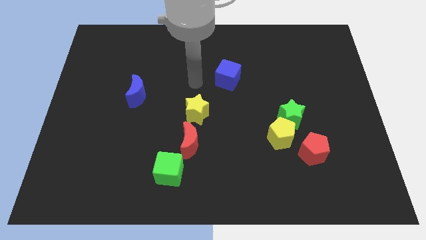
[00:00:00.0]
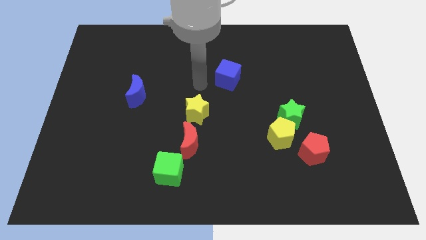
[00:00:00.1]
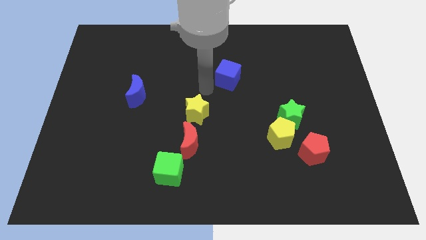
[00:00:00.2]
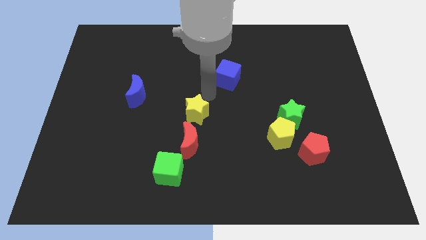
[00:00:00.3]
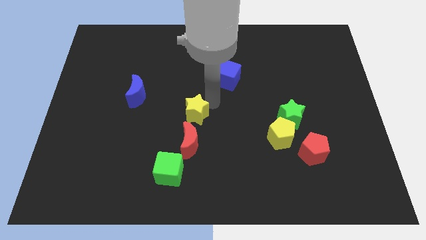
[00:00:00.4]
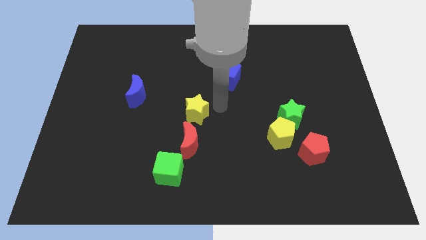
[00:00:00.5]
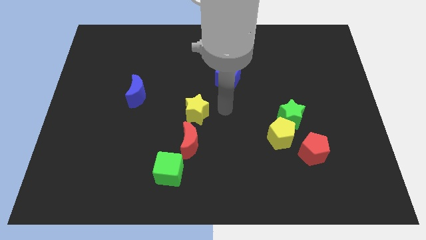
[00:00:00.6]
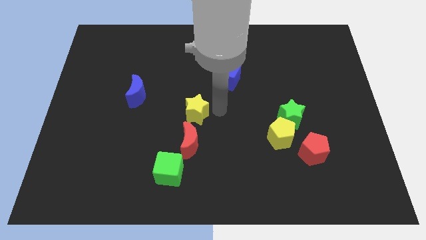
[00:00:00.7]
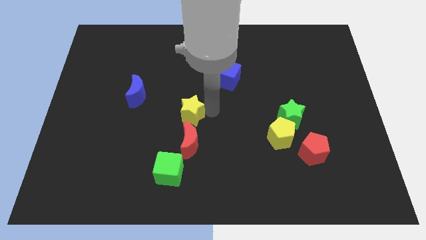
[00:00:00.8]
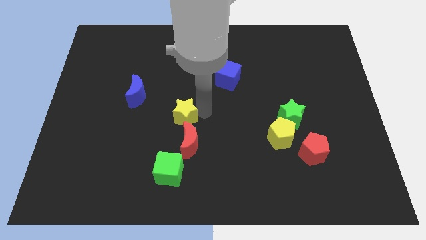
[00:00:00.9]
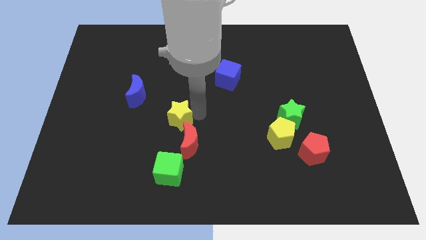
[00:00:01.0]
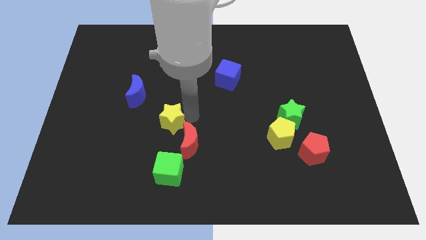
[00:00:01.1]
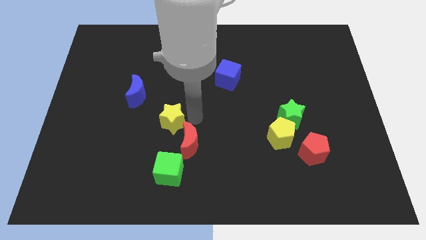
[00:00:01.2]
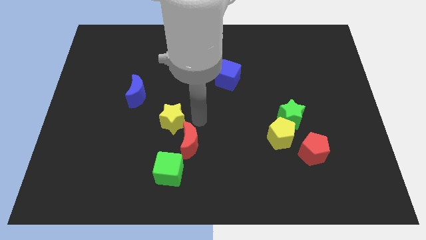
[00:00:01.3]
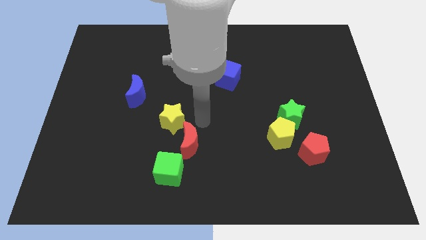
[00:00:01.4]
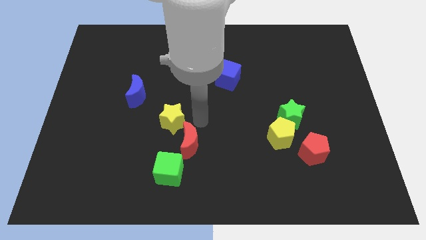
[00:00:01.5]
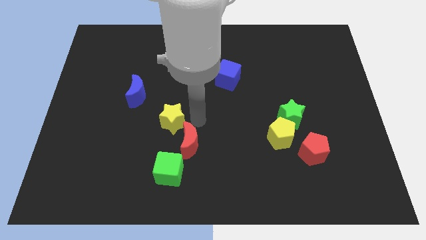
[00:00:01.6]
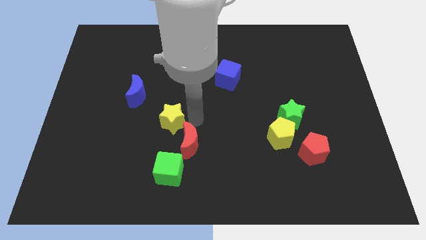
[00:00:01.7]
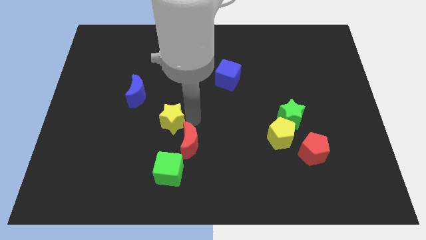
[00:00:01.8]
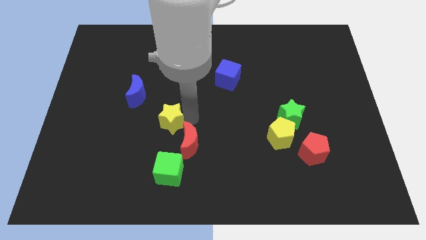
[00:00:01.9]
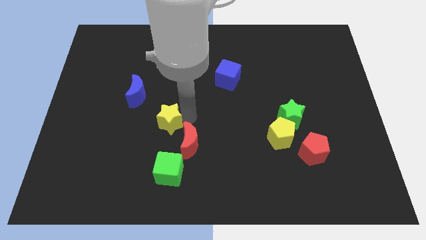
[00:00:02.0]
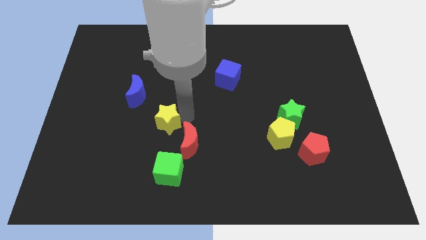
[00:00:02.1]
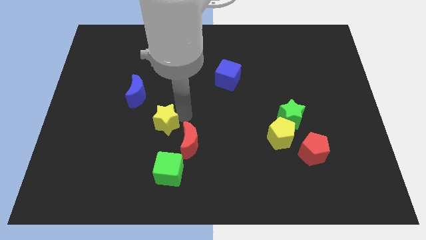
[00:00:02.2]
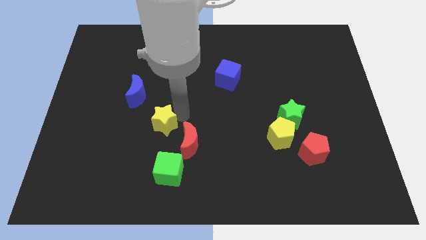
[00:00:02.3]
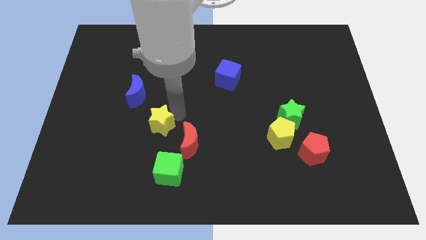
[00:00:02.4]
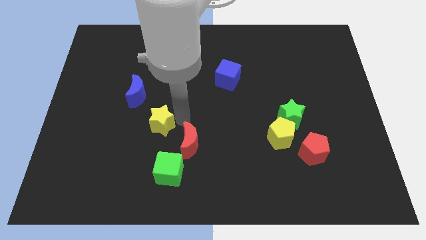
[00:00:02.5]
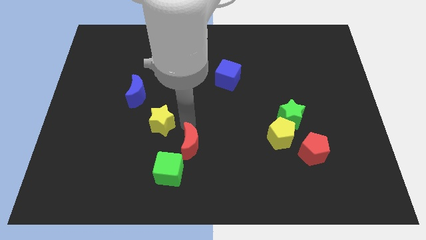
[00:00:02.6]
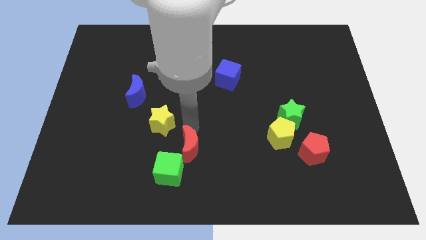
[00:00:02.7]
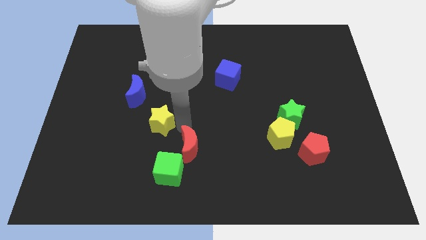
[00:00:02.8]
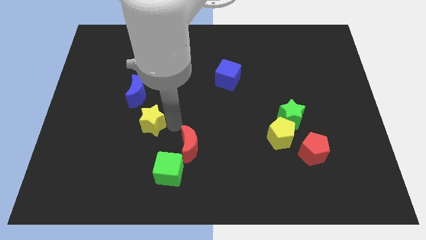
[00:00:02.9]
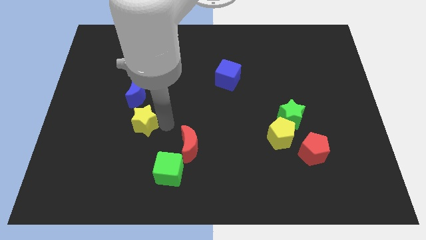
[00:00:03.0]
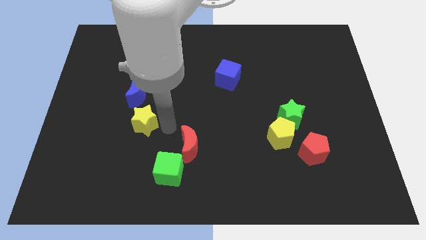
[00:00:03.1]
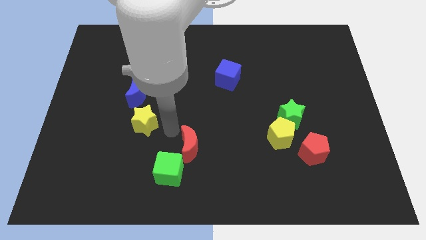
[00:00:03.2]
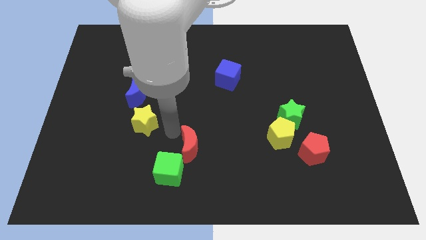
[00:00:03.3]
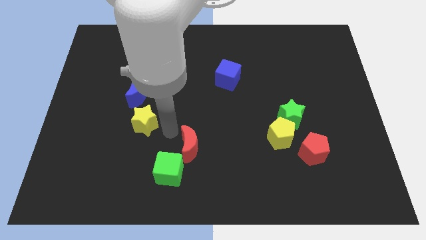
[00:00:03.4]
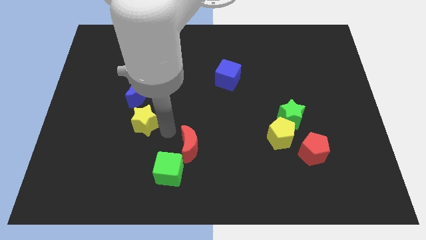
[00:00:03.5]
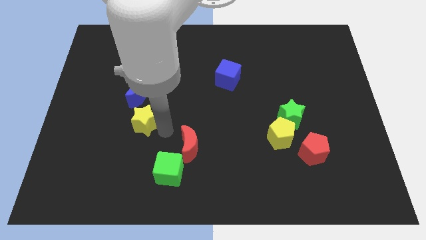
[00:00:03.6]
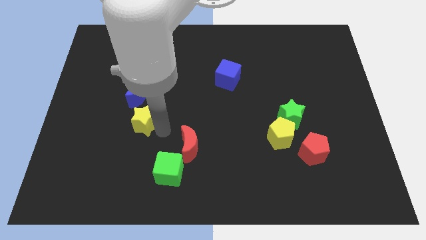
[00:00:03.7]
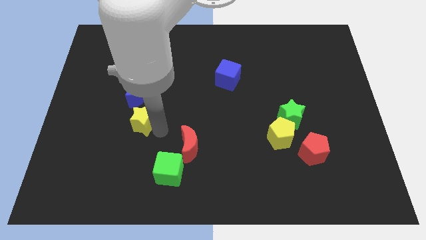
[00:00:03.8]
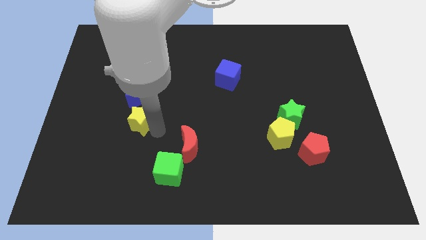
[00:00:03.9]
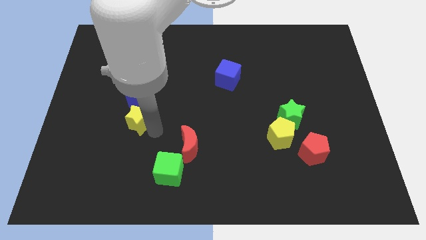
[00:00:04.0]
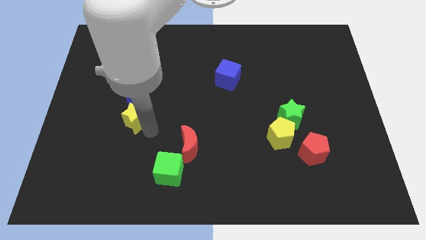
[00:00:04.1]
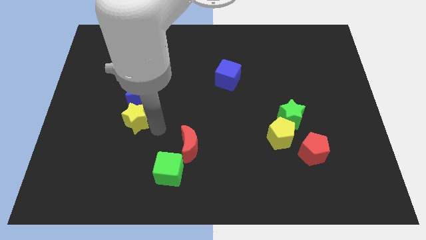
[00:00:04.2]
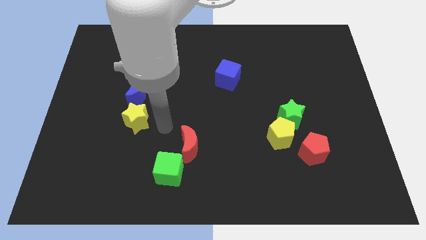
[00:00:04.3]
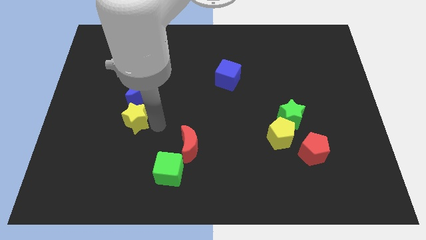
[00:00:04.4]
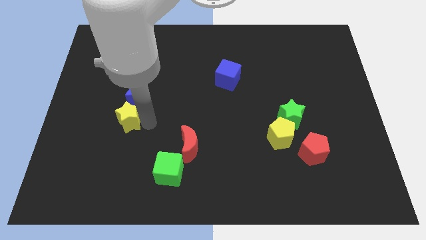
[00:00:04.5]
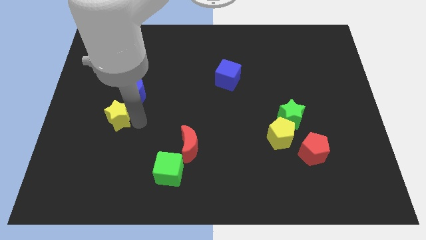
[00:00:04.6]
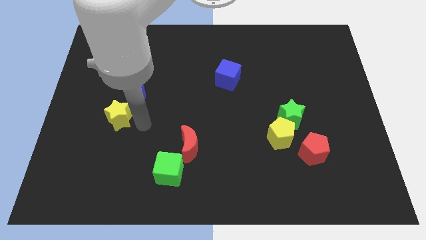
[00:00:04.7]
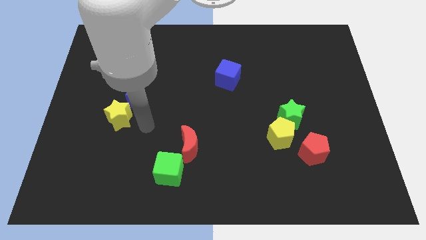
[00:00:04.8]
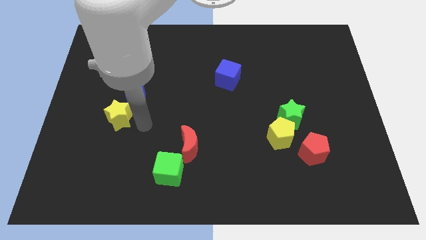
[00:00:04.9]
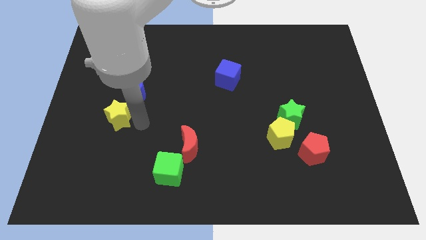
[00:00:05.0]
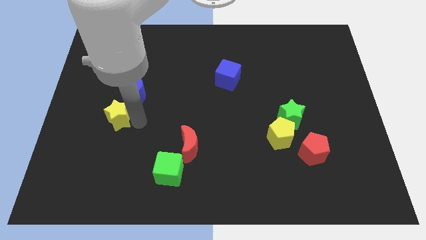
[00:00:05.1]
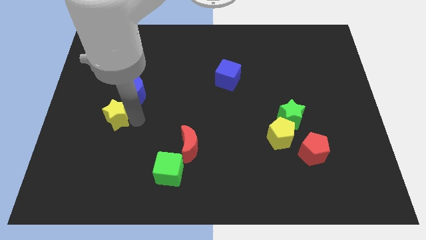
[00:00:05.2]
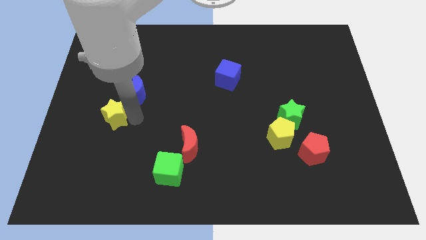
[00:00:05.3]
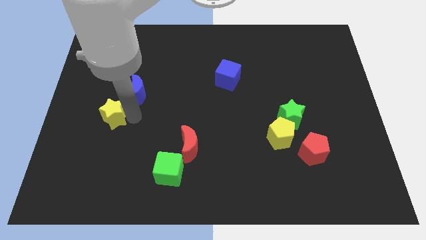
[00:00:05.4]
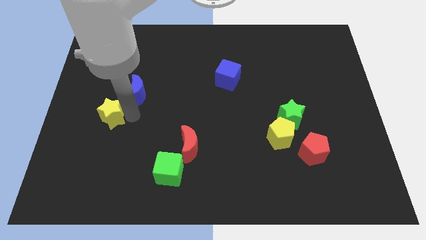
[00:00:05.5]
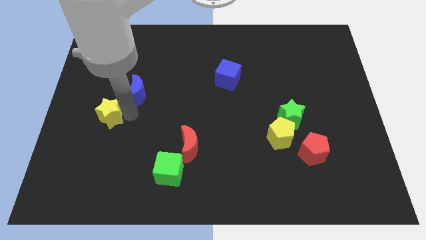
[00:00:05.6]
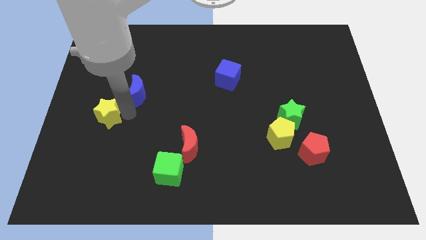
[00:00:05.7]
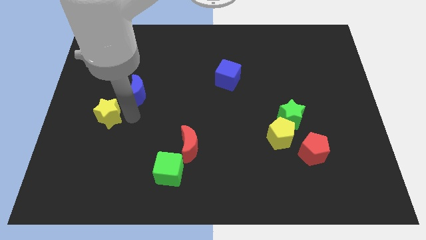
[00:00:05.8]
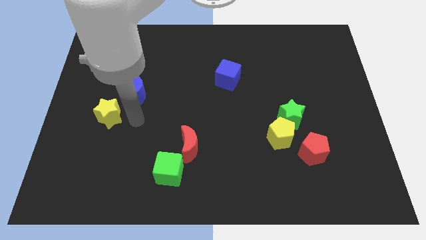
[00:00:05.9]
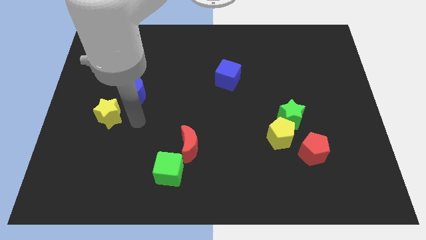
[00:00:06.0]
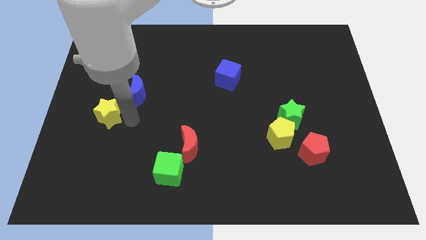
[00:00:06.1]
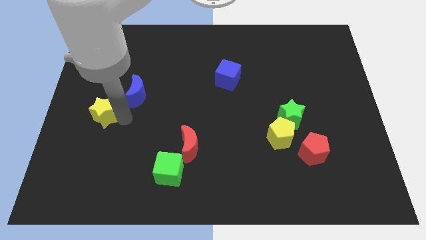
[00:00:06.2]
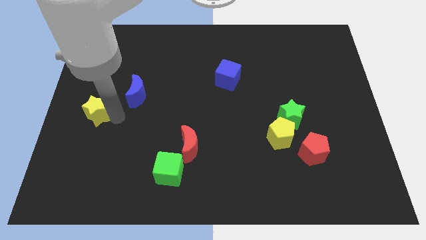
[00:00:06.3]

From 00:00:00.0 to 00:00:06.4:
put the yellow star to the center left

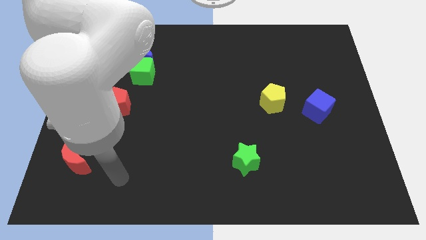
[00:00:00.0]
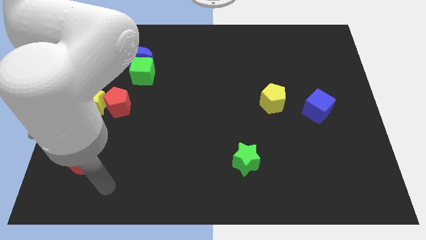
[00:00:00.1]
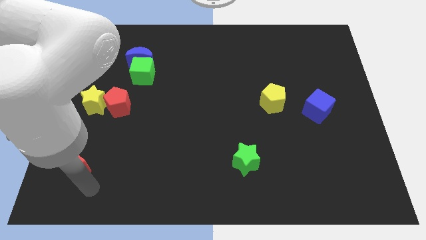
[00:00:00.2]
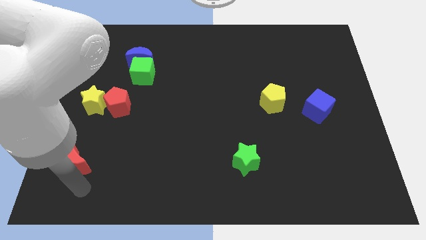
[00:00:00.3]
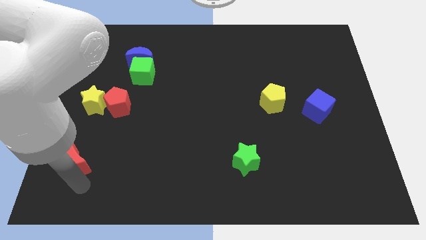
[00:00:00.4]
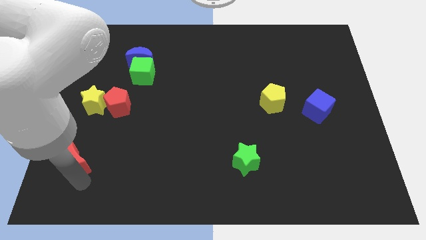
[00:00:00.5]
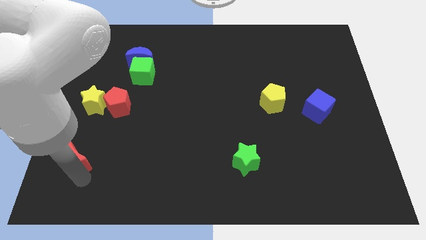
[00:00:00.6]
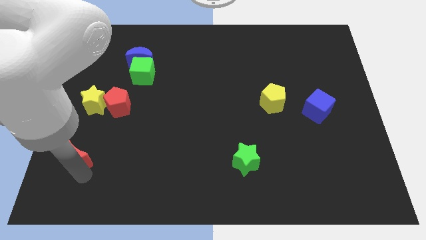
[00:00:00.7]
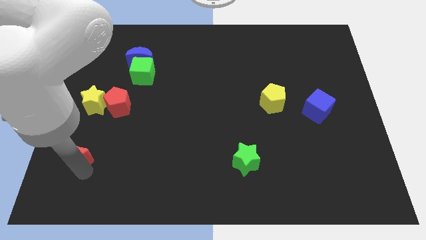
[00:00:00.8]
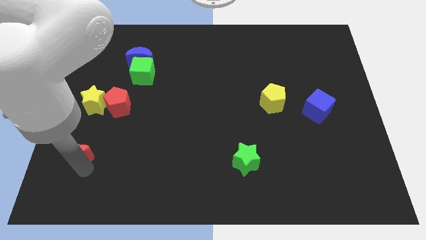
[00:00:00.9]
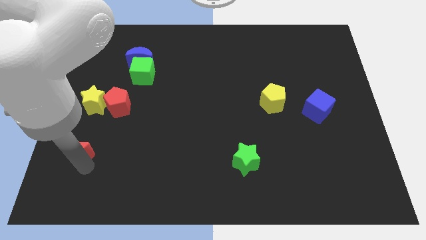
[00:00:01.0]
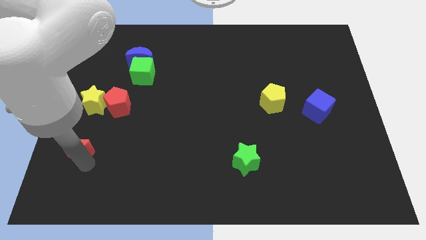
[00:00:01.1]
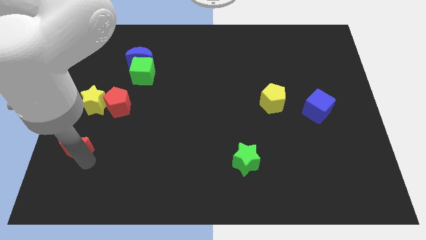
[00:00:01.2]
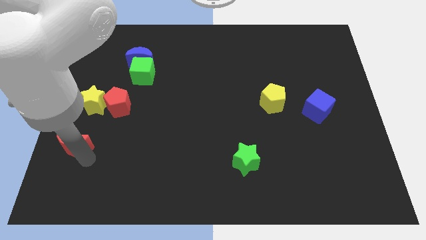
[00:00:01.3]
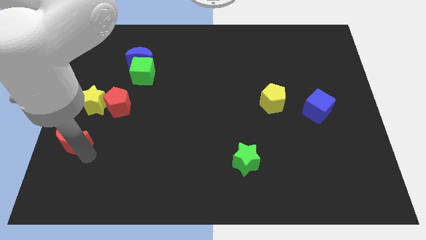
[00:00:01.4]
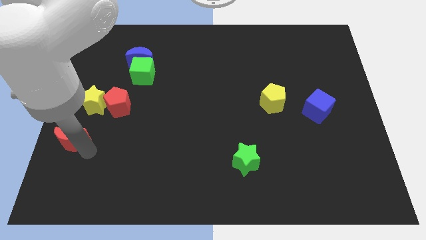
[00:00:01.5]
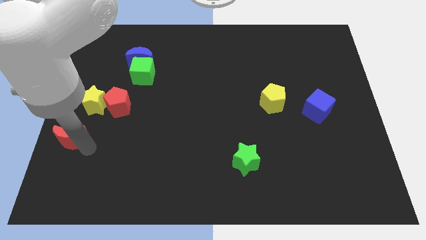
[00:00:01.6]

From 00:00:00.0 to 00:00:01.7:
slide the red moon to the center left
